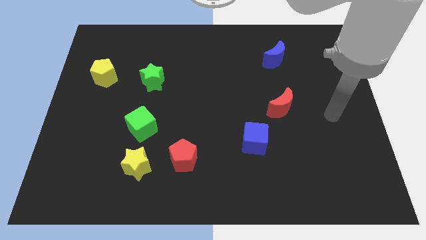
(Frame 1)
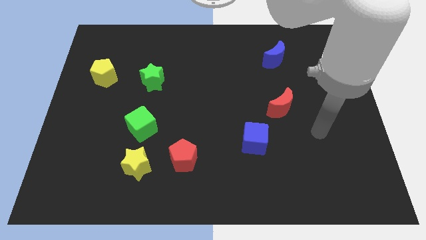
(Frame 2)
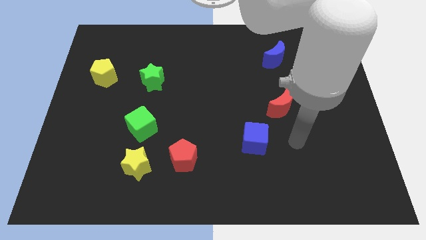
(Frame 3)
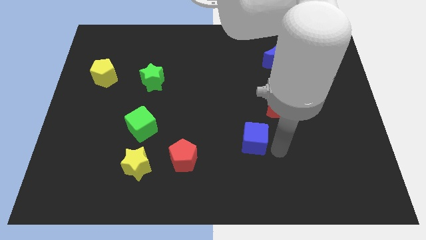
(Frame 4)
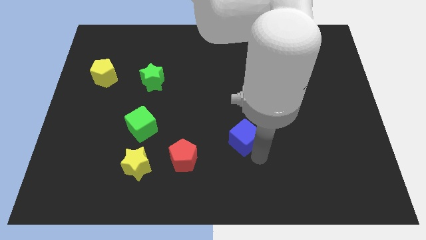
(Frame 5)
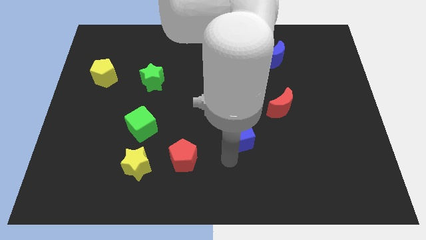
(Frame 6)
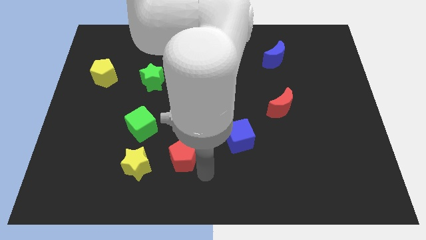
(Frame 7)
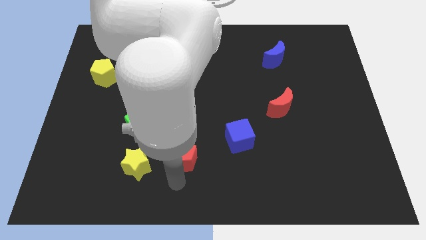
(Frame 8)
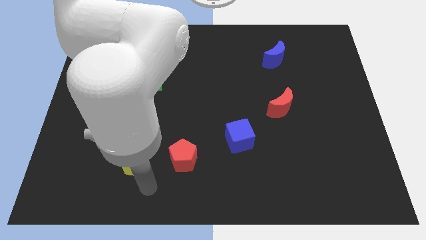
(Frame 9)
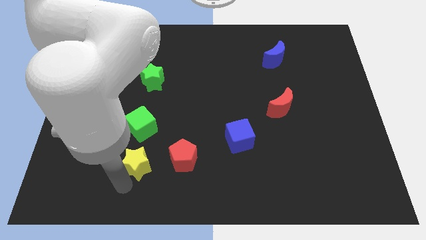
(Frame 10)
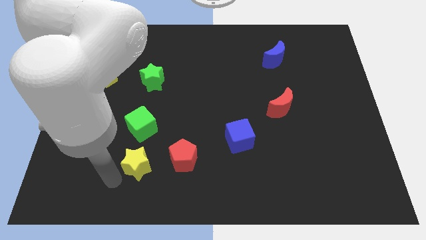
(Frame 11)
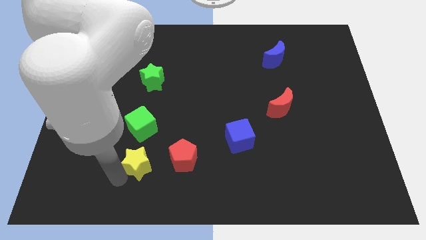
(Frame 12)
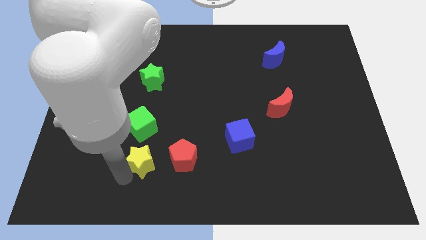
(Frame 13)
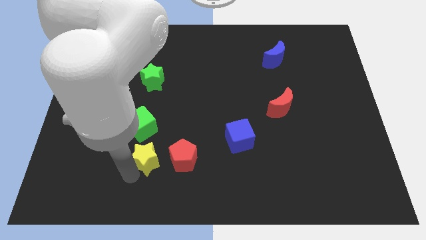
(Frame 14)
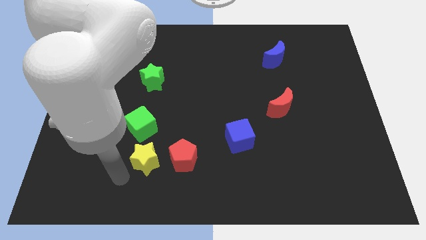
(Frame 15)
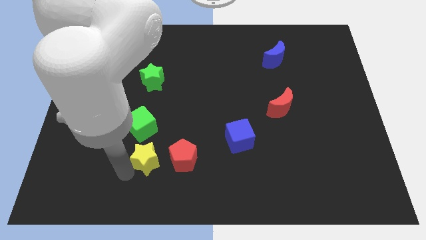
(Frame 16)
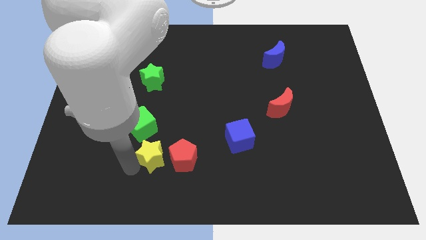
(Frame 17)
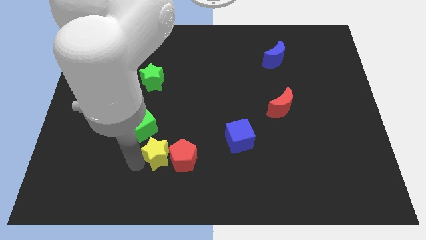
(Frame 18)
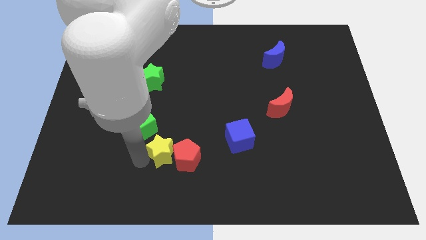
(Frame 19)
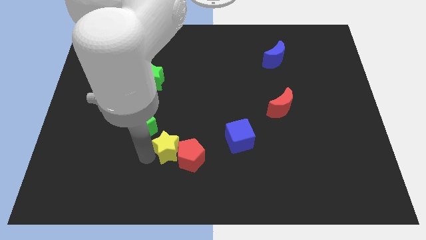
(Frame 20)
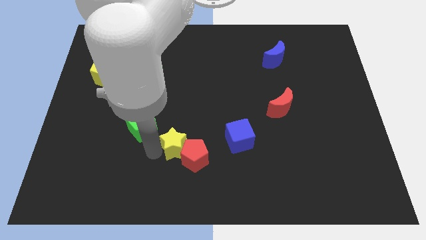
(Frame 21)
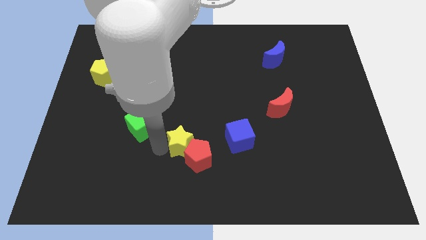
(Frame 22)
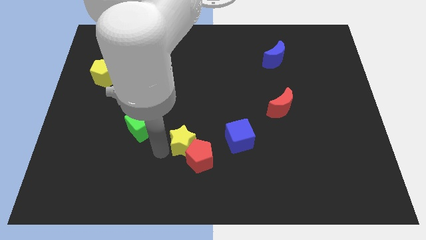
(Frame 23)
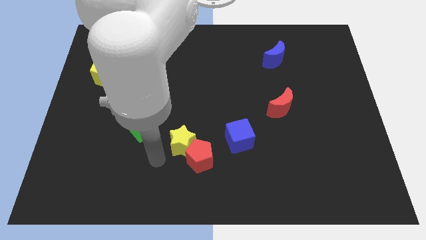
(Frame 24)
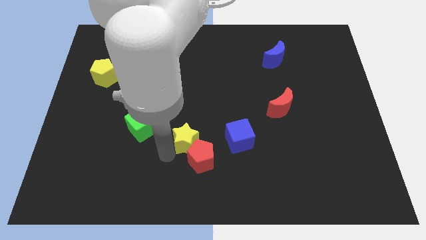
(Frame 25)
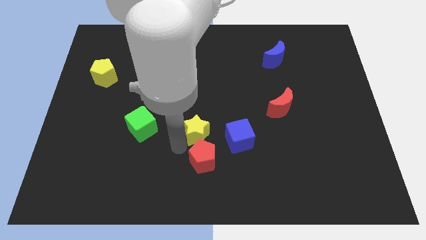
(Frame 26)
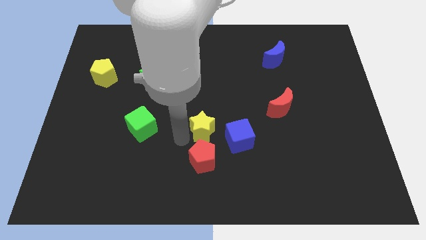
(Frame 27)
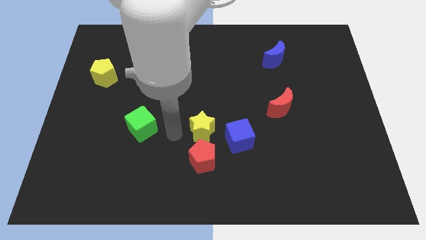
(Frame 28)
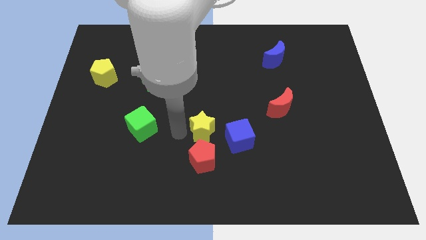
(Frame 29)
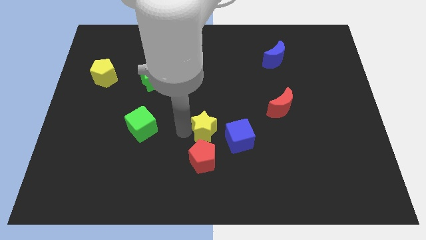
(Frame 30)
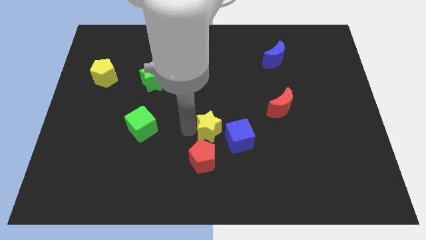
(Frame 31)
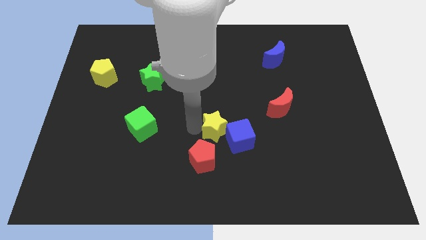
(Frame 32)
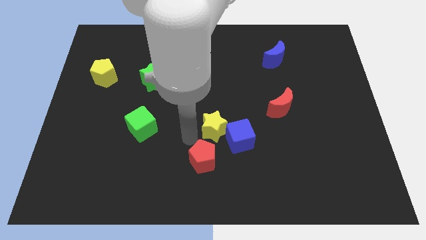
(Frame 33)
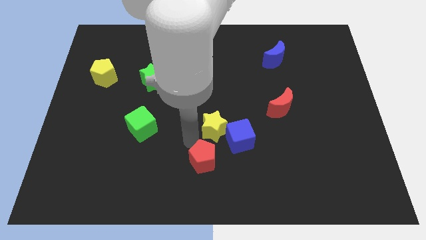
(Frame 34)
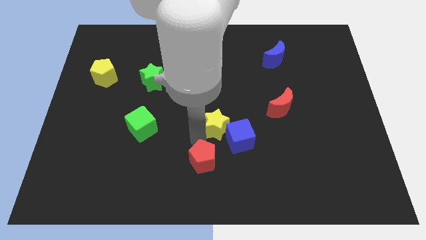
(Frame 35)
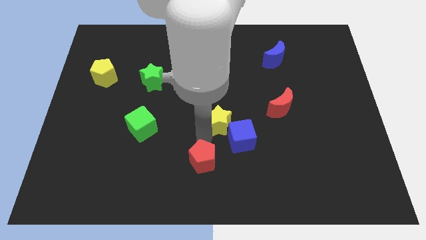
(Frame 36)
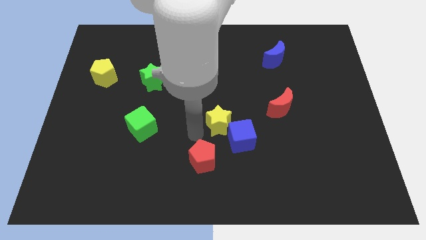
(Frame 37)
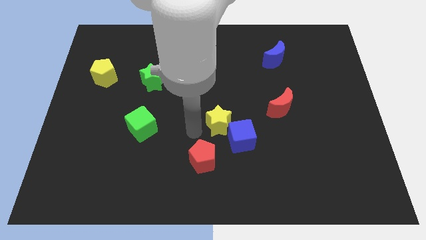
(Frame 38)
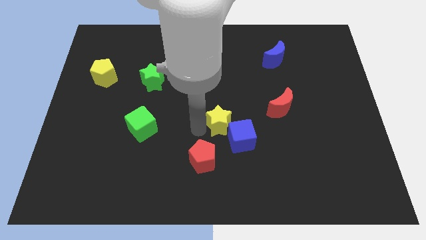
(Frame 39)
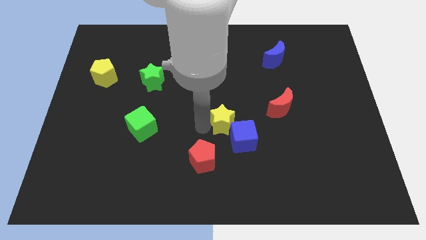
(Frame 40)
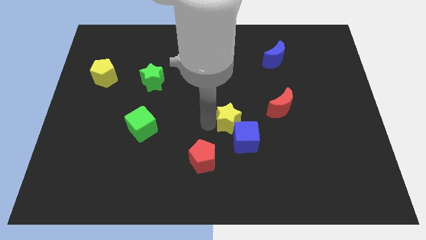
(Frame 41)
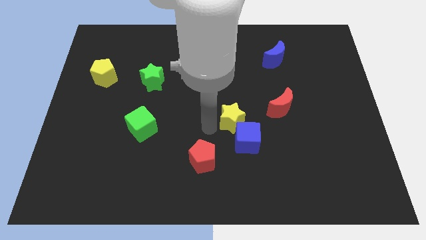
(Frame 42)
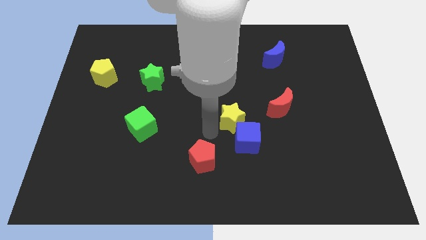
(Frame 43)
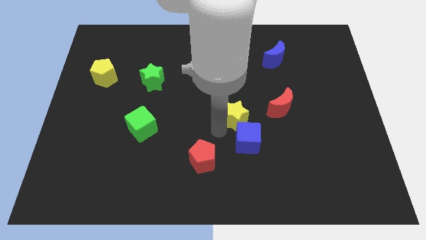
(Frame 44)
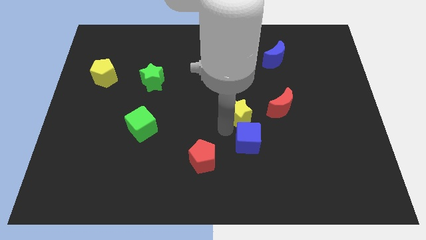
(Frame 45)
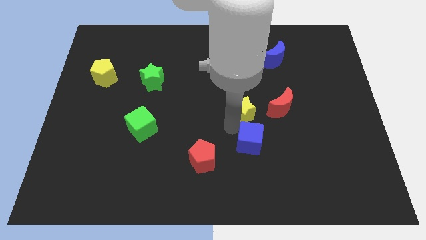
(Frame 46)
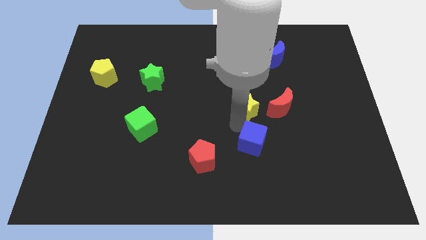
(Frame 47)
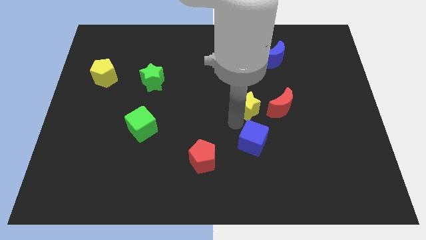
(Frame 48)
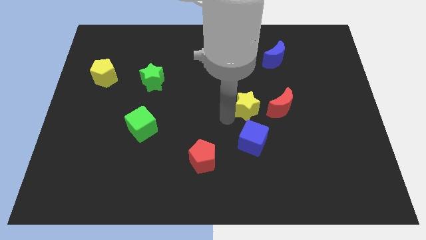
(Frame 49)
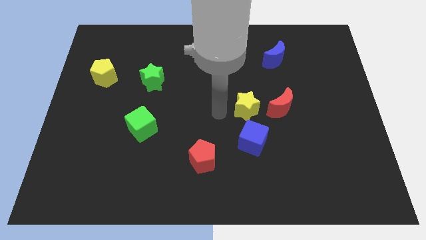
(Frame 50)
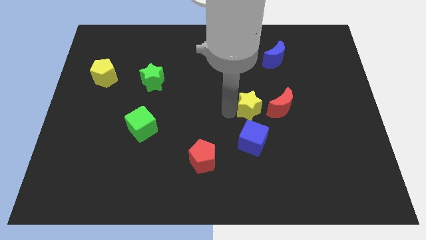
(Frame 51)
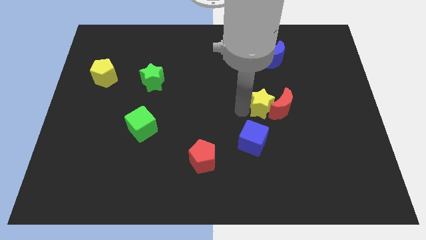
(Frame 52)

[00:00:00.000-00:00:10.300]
push the yellow star towards the red moon

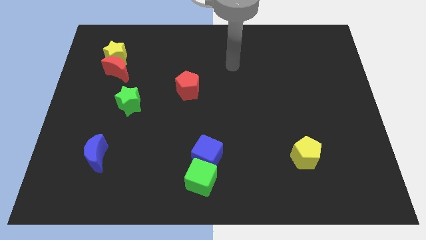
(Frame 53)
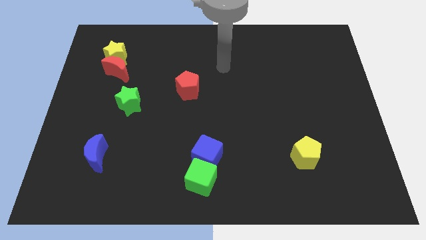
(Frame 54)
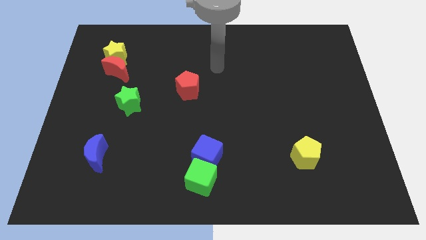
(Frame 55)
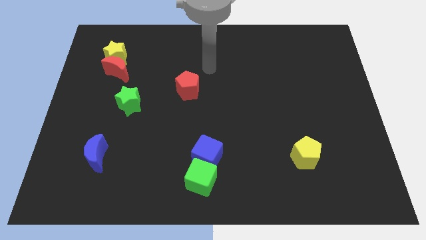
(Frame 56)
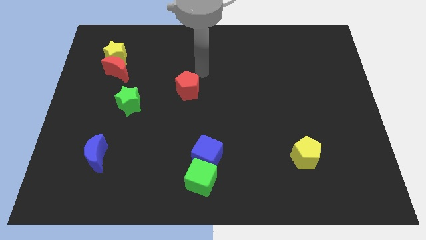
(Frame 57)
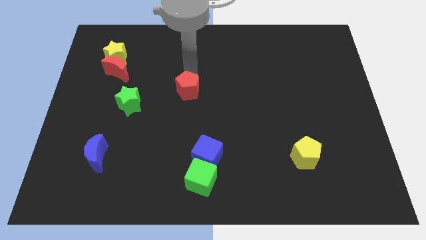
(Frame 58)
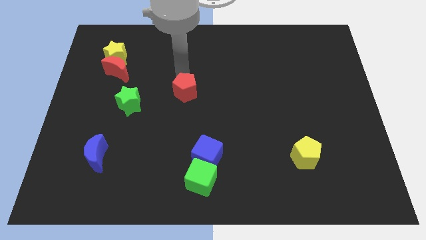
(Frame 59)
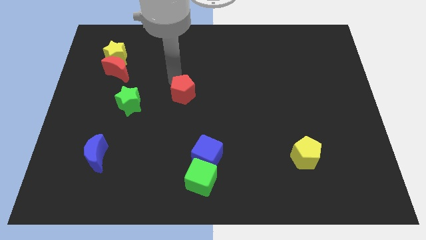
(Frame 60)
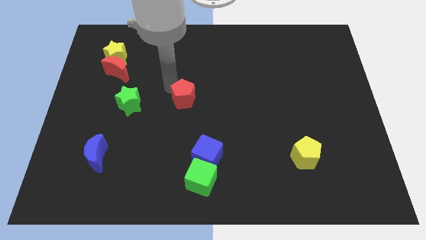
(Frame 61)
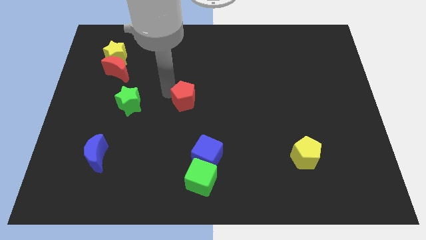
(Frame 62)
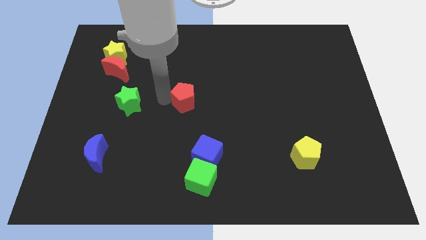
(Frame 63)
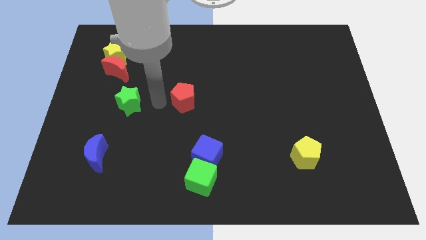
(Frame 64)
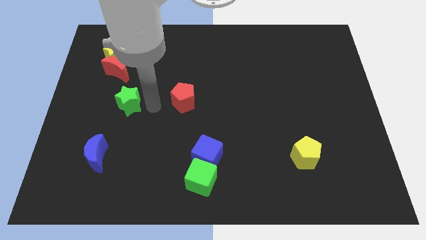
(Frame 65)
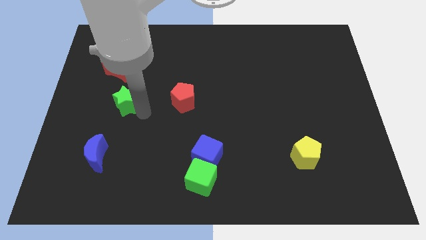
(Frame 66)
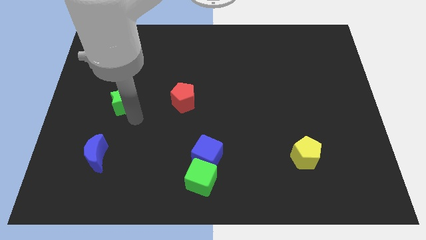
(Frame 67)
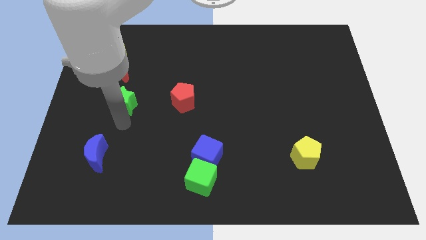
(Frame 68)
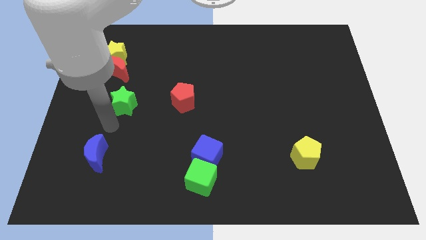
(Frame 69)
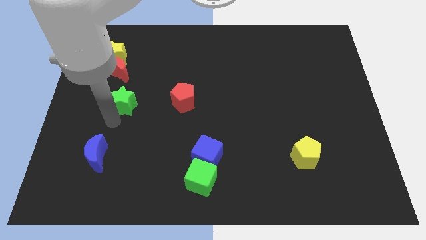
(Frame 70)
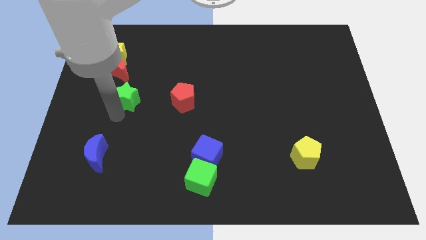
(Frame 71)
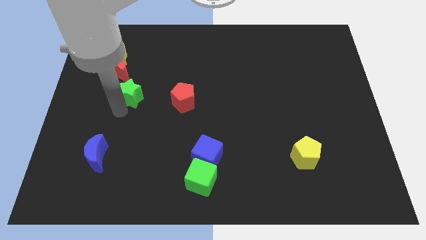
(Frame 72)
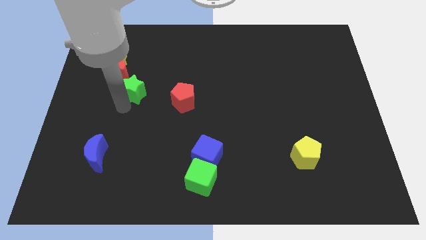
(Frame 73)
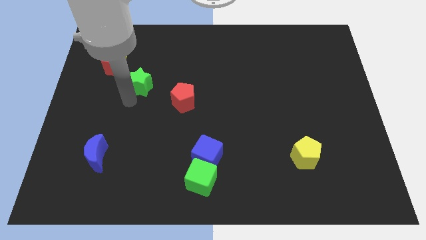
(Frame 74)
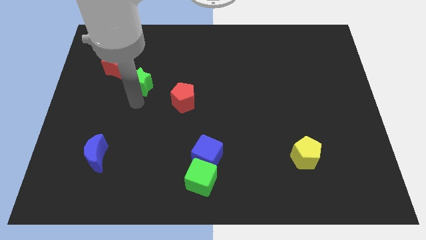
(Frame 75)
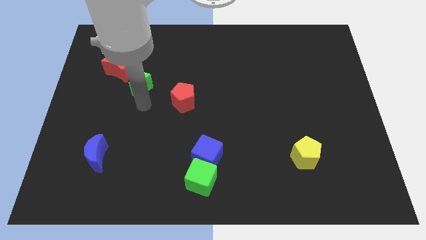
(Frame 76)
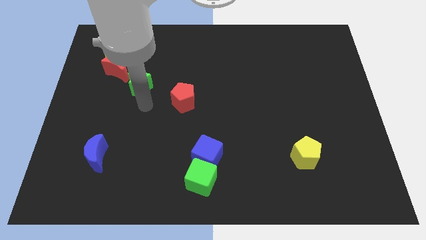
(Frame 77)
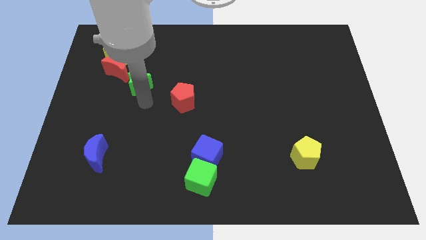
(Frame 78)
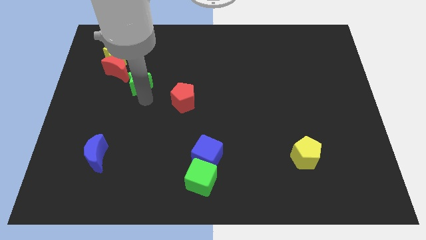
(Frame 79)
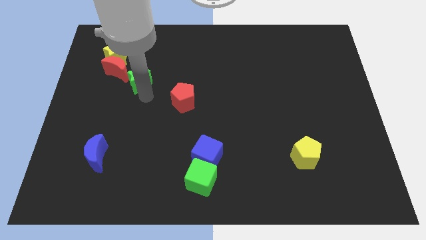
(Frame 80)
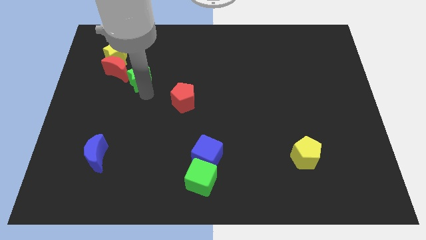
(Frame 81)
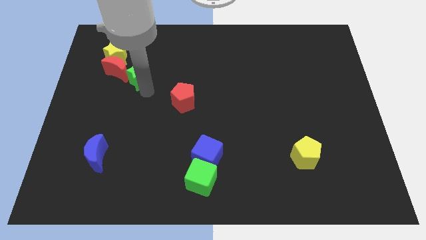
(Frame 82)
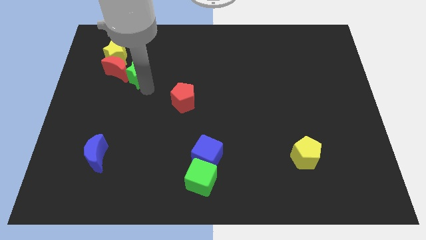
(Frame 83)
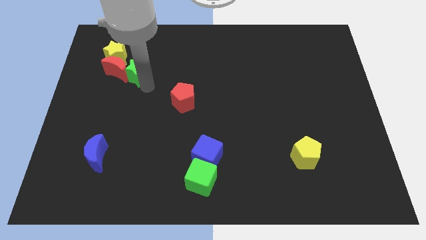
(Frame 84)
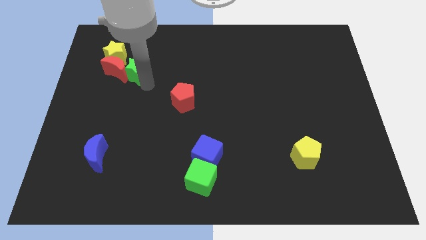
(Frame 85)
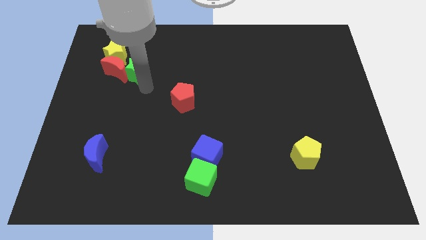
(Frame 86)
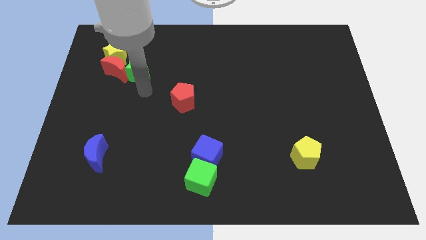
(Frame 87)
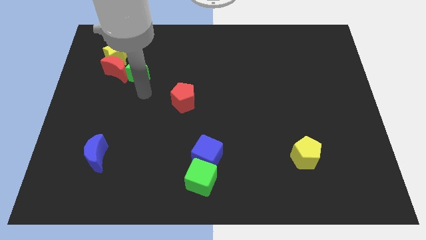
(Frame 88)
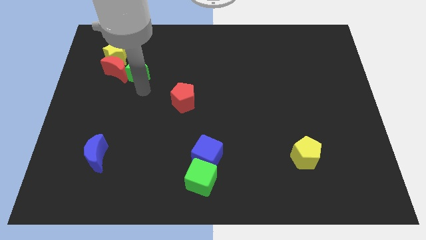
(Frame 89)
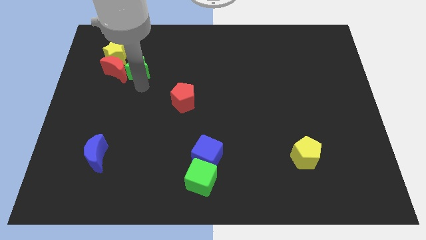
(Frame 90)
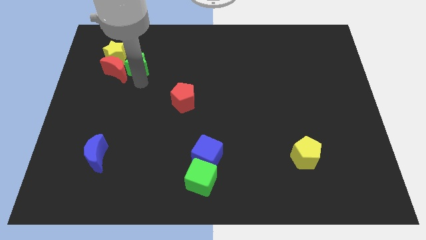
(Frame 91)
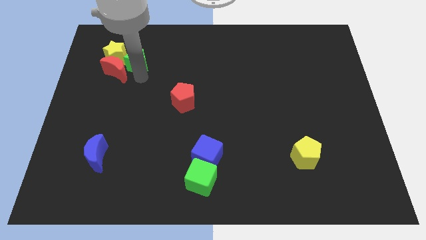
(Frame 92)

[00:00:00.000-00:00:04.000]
move the green star towards the yellow star
